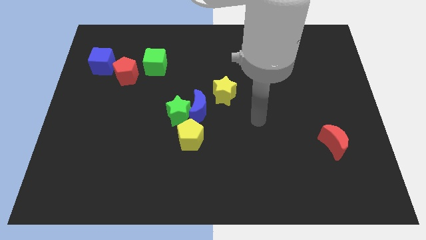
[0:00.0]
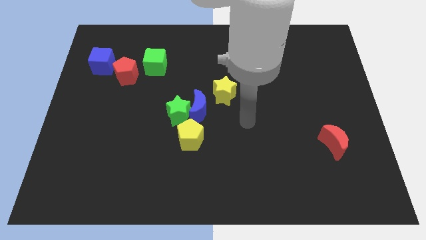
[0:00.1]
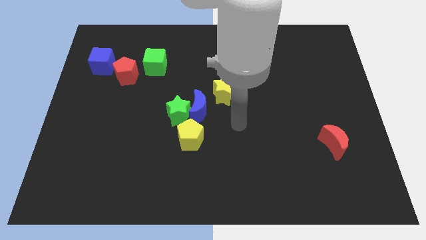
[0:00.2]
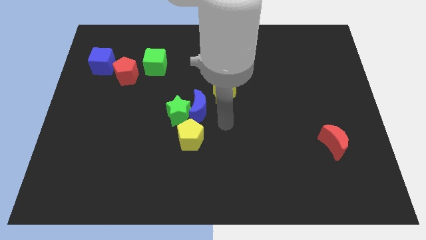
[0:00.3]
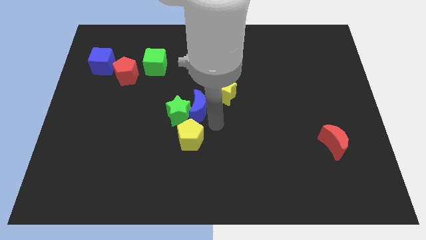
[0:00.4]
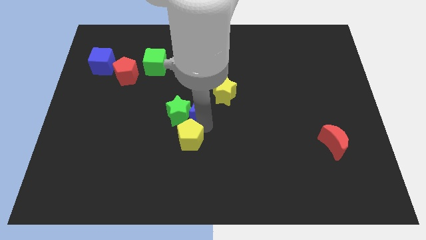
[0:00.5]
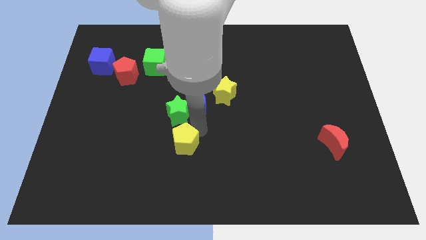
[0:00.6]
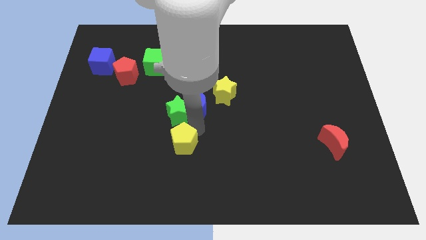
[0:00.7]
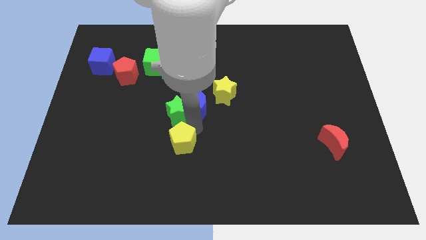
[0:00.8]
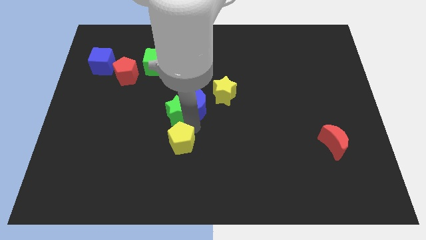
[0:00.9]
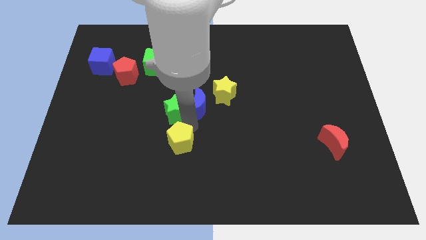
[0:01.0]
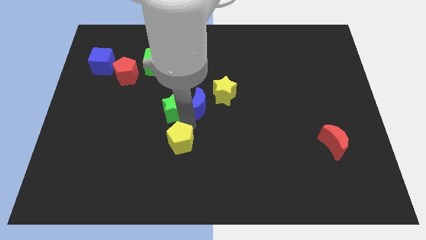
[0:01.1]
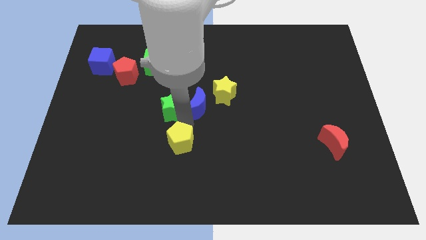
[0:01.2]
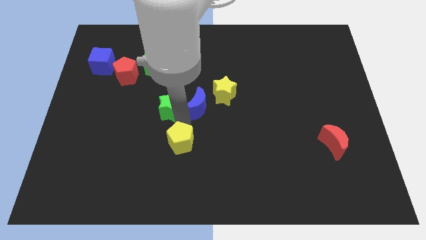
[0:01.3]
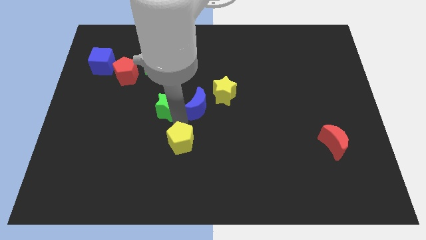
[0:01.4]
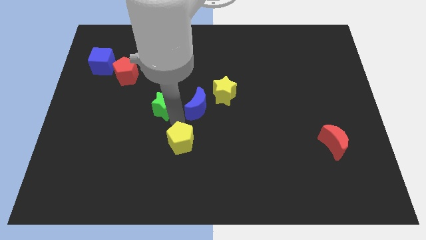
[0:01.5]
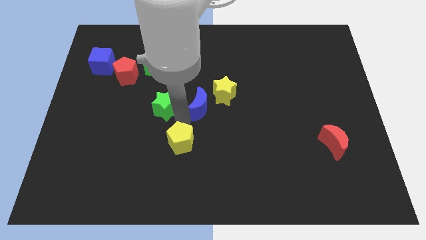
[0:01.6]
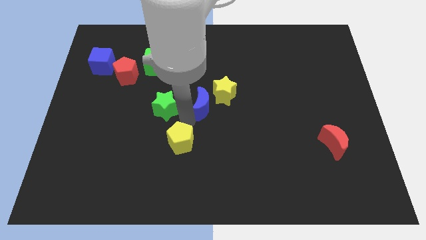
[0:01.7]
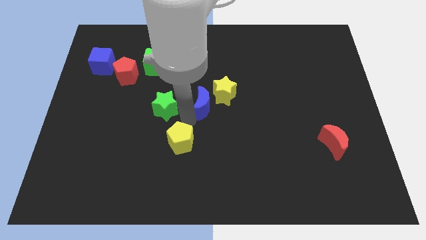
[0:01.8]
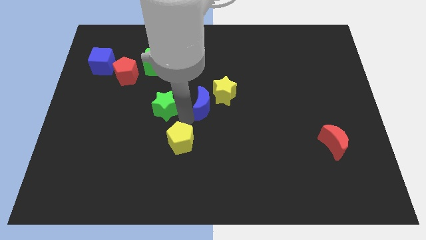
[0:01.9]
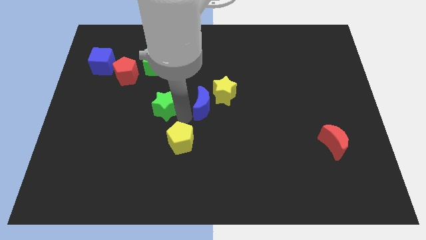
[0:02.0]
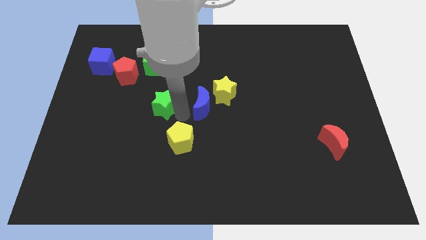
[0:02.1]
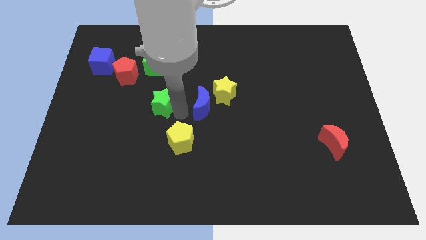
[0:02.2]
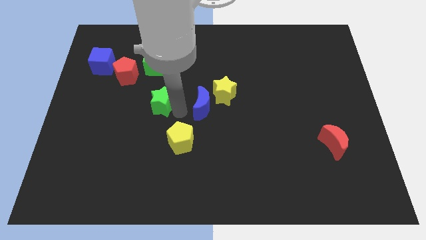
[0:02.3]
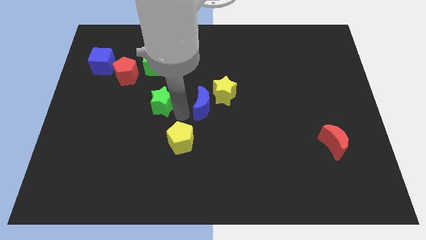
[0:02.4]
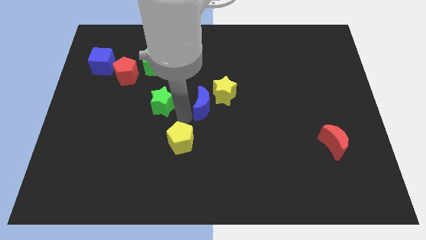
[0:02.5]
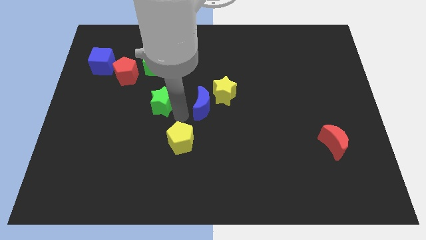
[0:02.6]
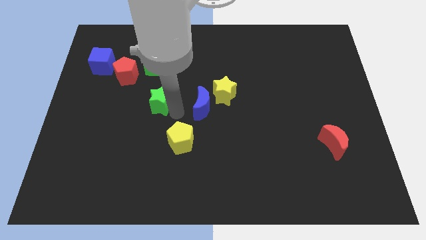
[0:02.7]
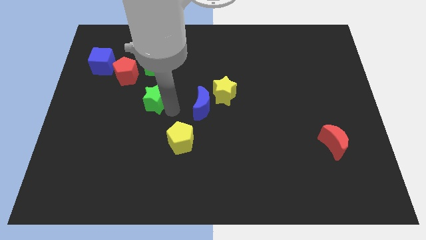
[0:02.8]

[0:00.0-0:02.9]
separate the green star from the blue moon and yellow pentagon

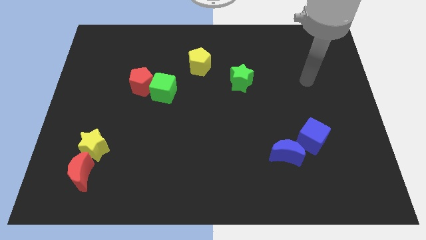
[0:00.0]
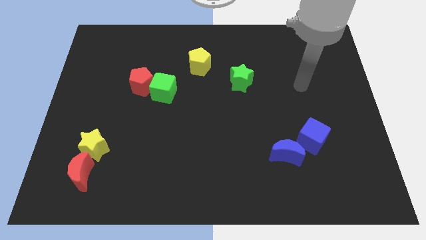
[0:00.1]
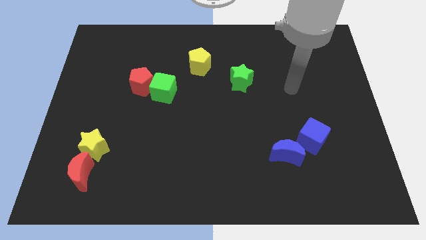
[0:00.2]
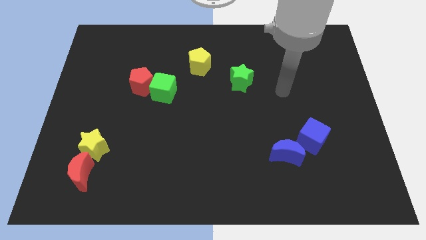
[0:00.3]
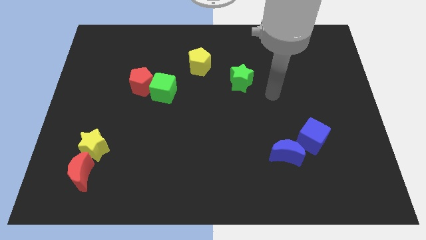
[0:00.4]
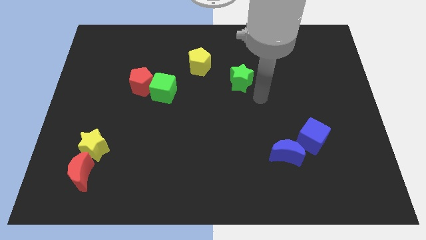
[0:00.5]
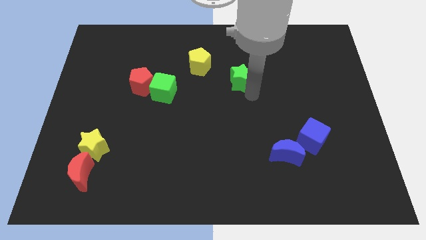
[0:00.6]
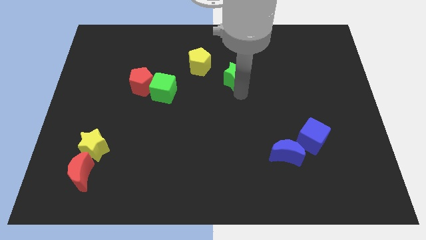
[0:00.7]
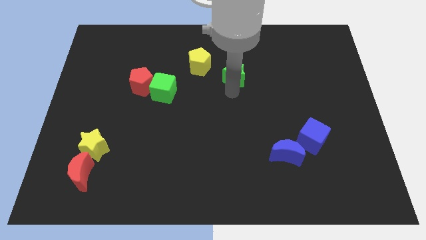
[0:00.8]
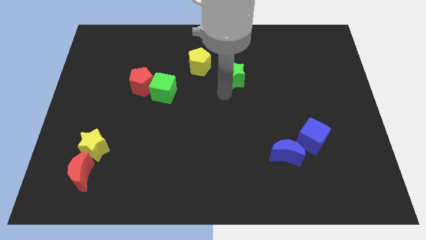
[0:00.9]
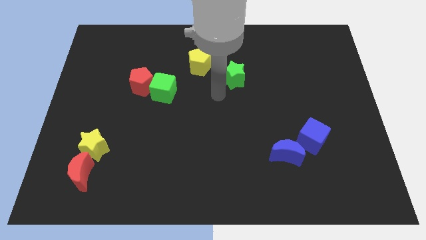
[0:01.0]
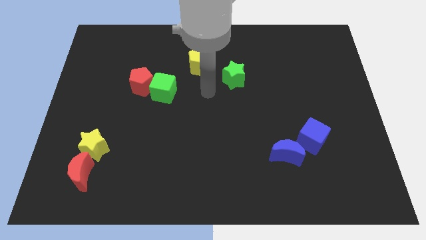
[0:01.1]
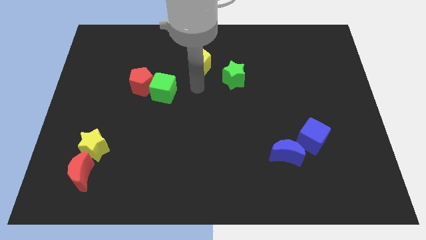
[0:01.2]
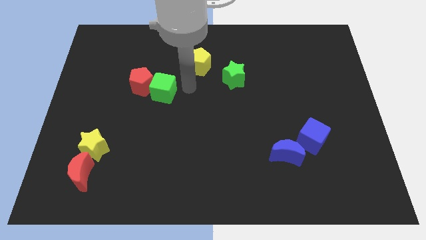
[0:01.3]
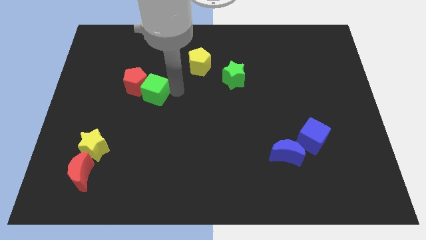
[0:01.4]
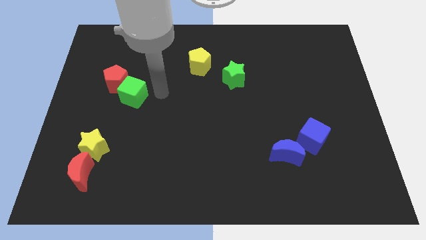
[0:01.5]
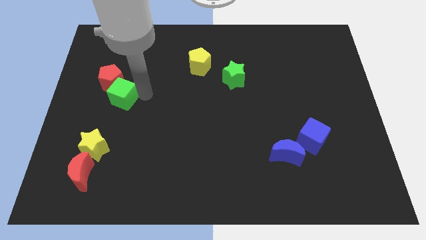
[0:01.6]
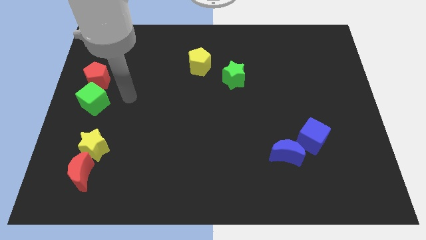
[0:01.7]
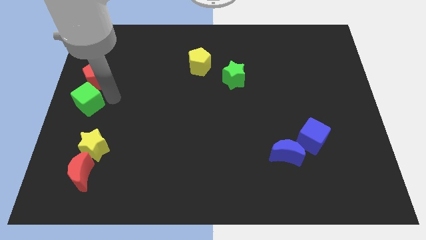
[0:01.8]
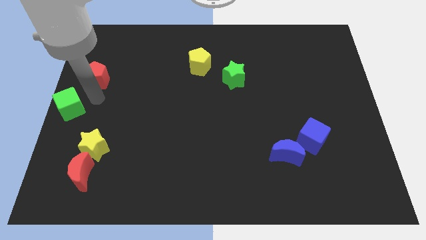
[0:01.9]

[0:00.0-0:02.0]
pull the red pentagon apart from the green cube

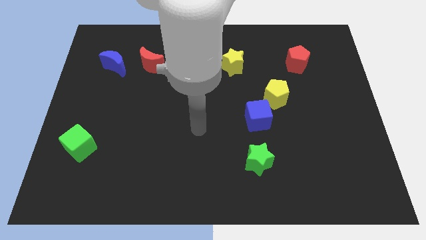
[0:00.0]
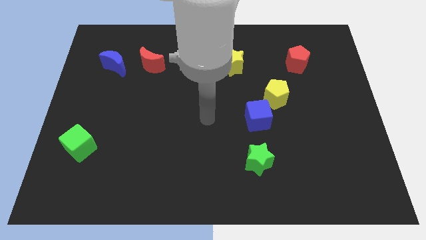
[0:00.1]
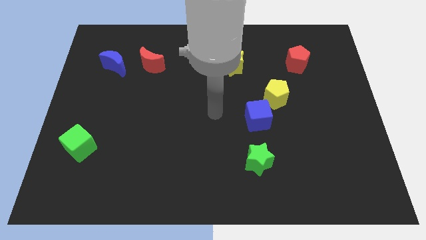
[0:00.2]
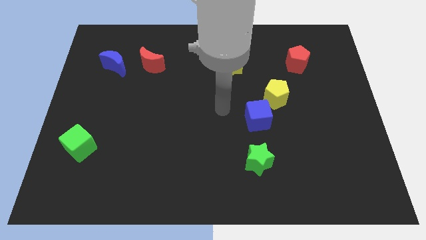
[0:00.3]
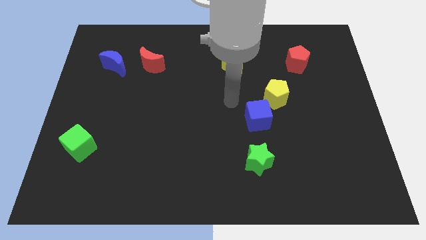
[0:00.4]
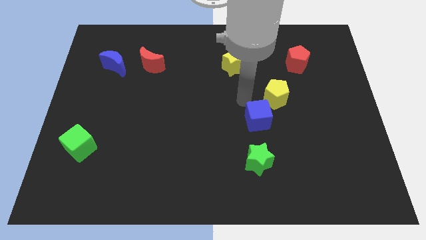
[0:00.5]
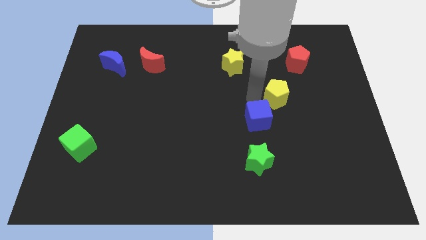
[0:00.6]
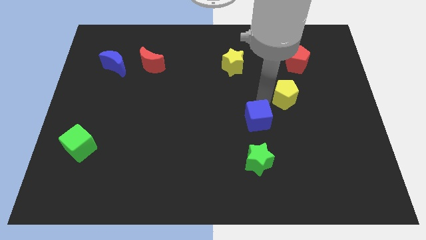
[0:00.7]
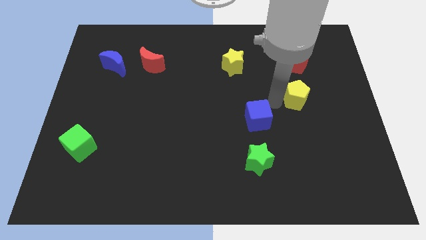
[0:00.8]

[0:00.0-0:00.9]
pull the blue cube apart from the yellow pentagon

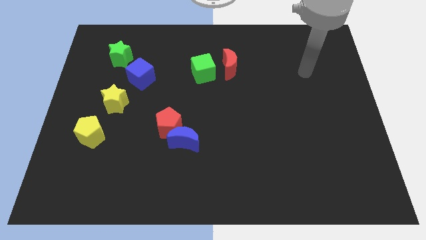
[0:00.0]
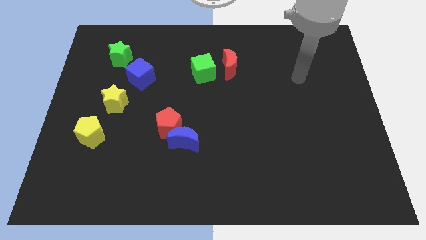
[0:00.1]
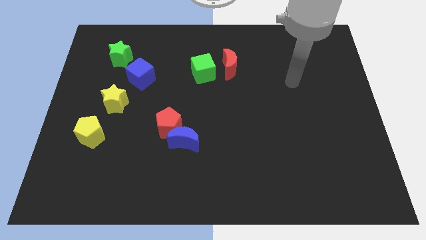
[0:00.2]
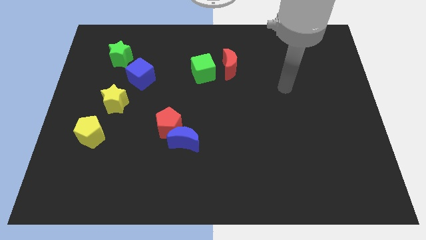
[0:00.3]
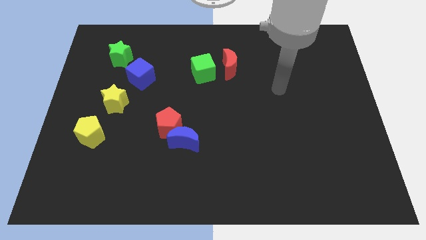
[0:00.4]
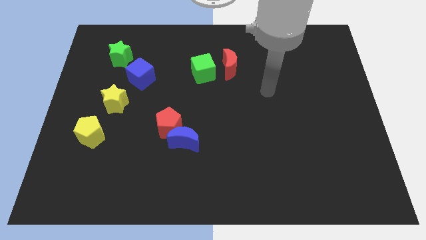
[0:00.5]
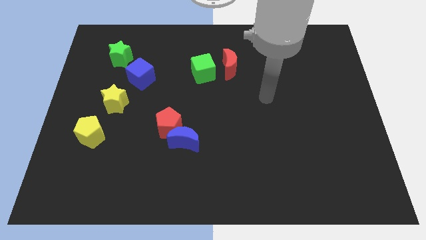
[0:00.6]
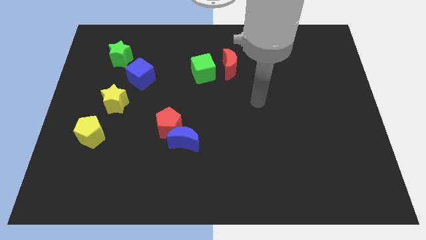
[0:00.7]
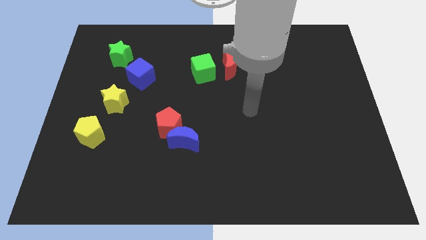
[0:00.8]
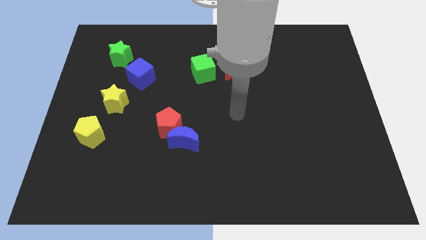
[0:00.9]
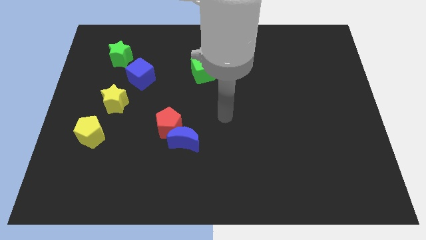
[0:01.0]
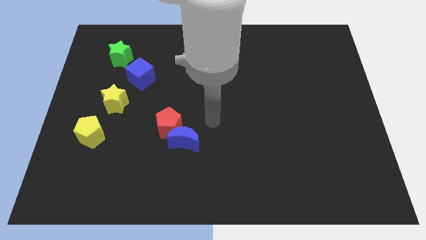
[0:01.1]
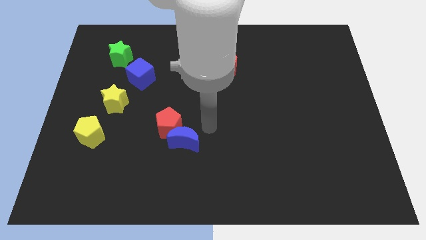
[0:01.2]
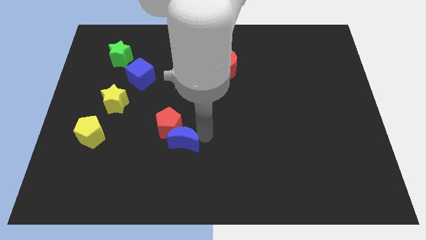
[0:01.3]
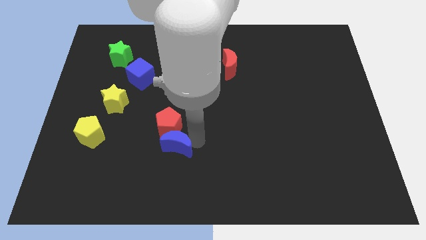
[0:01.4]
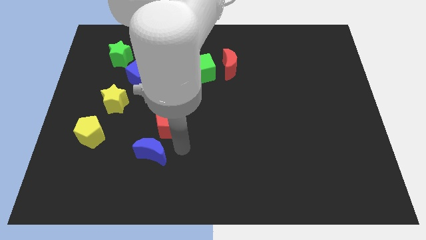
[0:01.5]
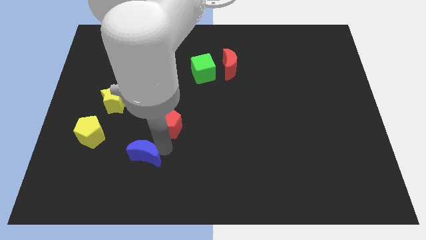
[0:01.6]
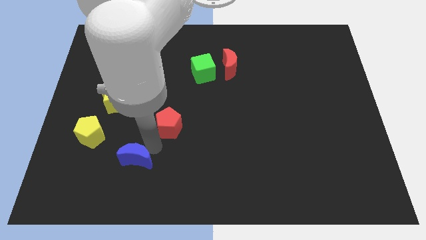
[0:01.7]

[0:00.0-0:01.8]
pull the red pentagon apart from the blue moon

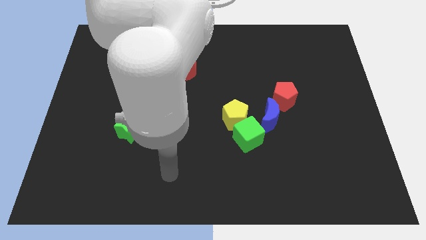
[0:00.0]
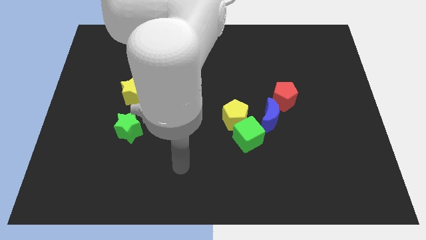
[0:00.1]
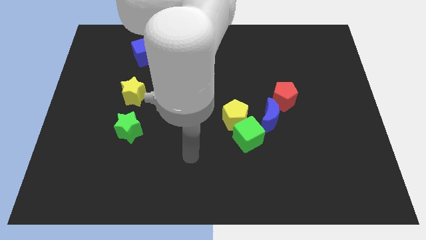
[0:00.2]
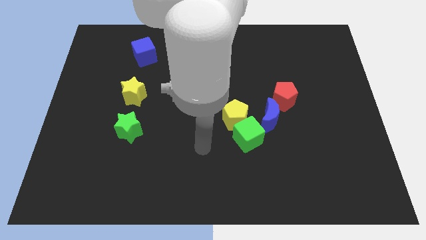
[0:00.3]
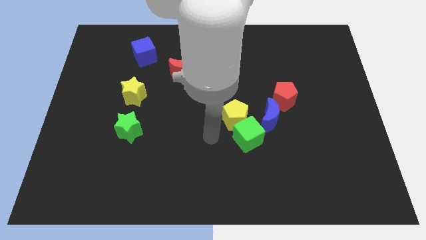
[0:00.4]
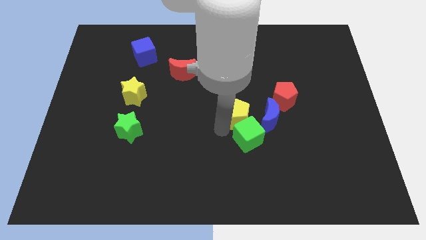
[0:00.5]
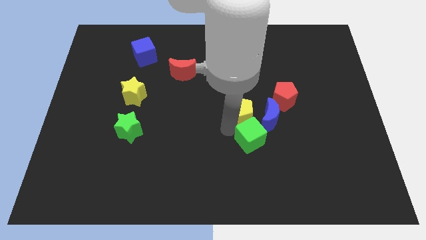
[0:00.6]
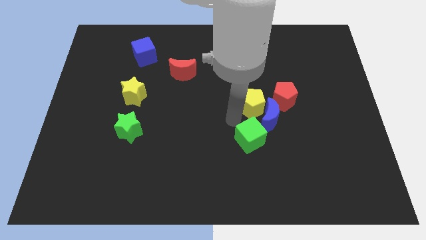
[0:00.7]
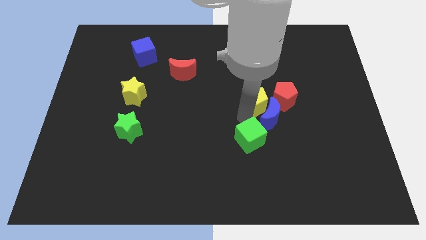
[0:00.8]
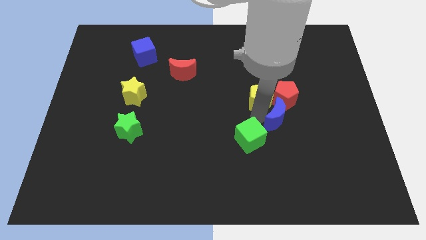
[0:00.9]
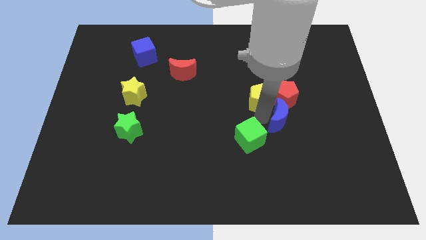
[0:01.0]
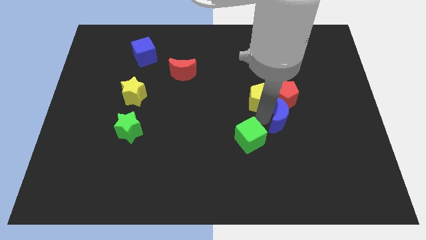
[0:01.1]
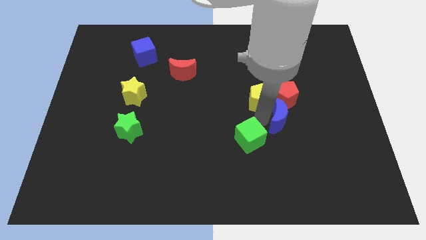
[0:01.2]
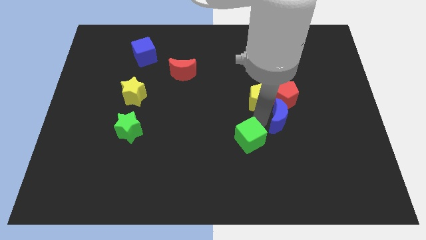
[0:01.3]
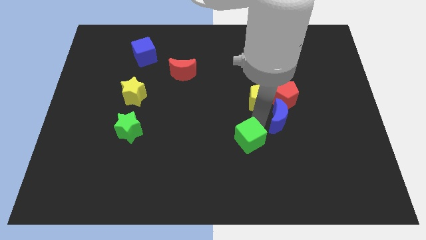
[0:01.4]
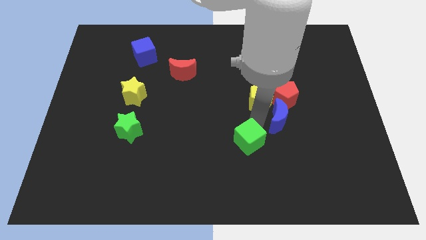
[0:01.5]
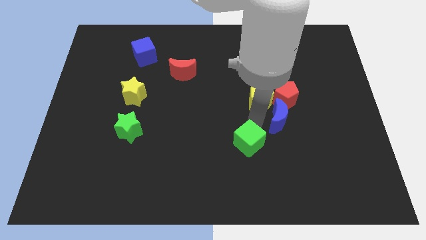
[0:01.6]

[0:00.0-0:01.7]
separate the green cube from the yellow pentagon and blue moon
